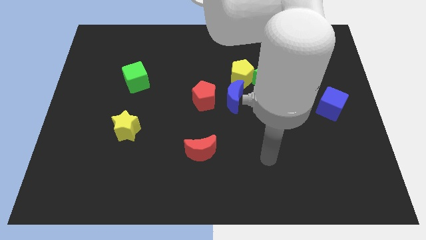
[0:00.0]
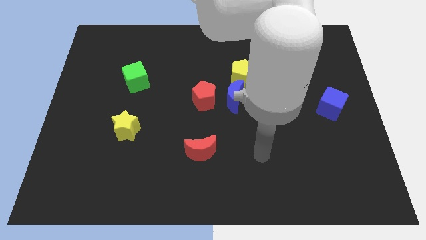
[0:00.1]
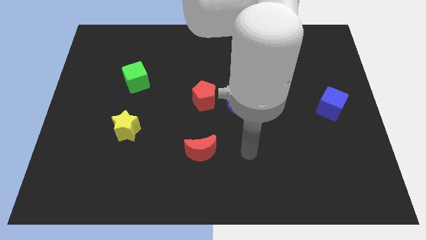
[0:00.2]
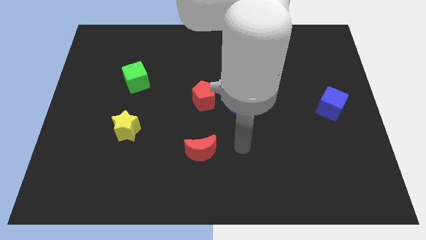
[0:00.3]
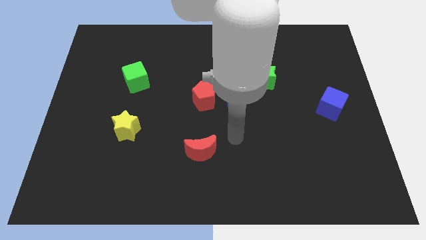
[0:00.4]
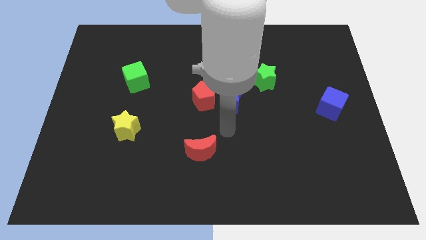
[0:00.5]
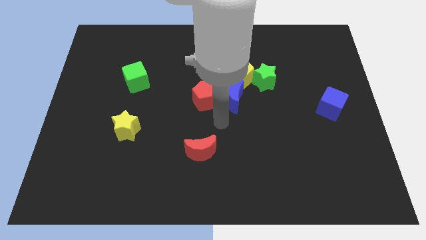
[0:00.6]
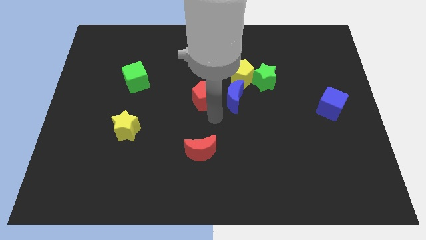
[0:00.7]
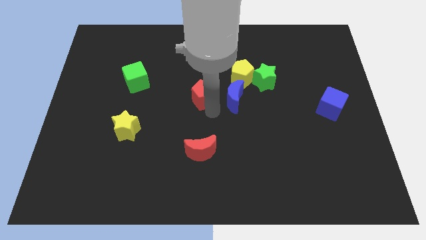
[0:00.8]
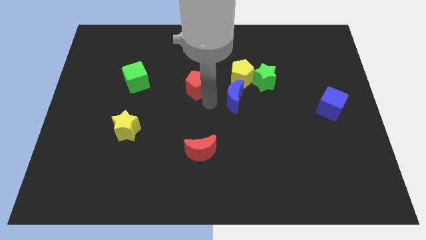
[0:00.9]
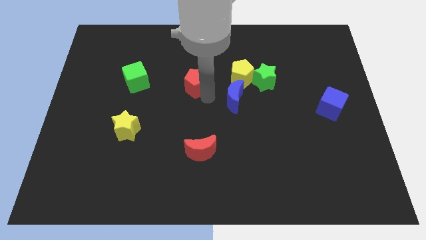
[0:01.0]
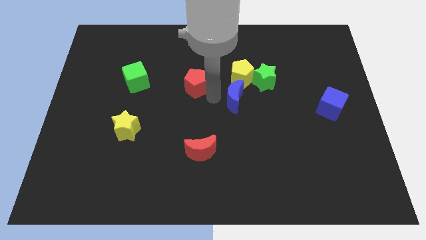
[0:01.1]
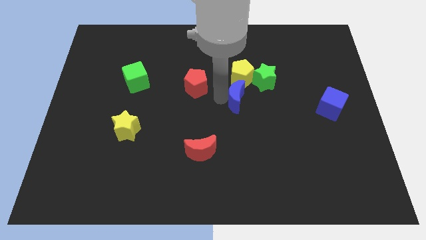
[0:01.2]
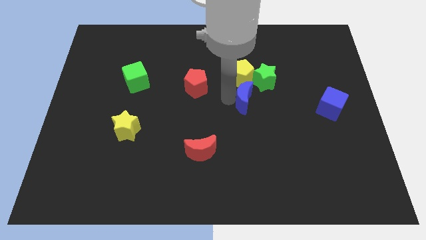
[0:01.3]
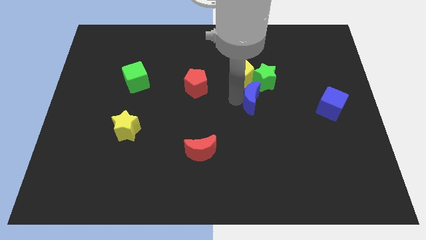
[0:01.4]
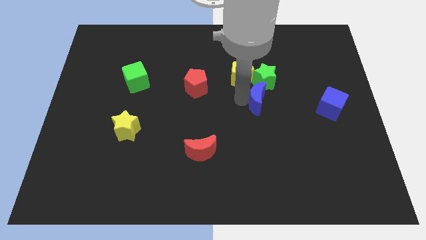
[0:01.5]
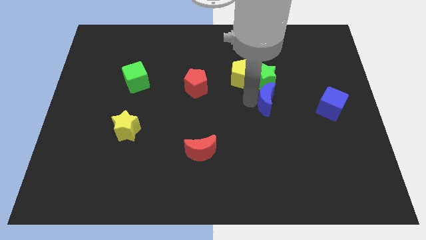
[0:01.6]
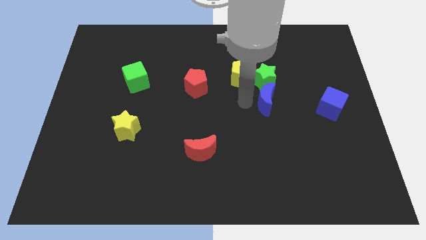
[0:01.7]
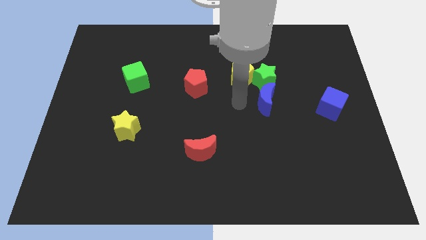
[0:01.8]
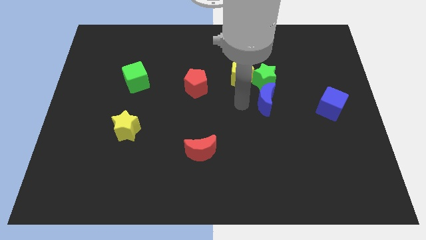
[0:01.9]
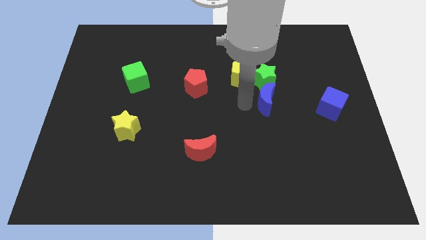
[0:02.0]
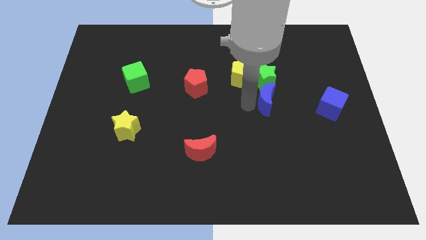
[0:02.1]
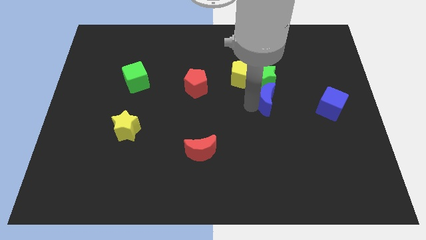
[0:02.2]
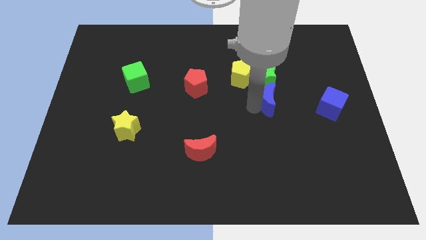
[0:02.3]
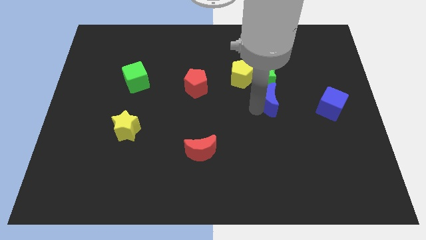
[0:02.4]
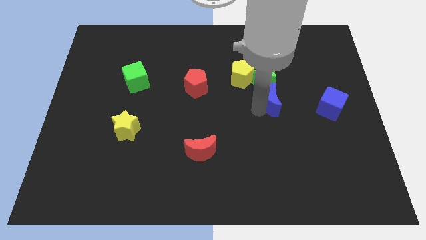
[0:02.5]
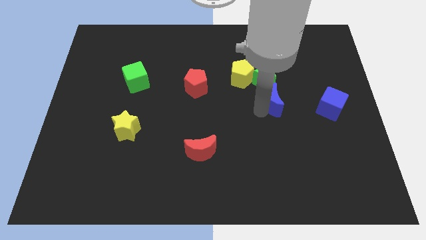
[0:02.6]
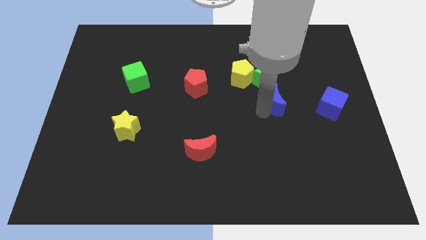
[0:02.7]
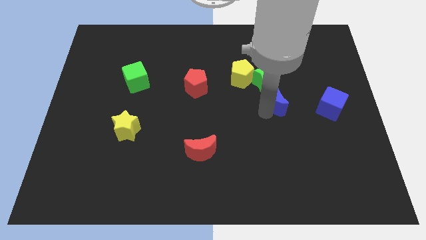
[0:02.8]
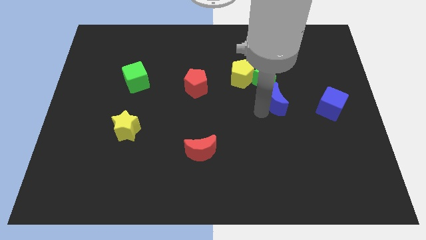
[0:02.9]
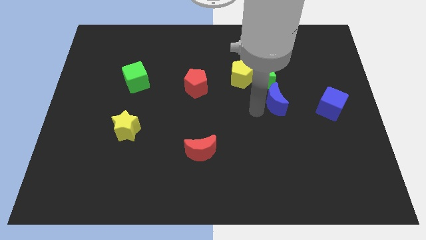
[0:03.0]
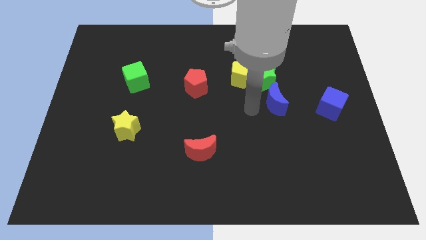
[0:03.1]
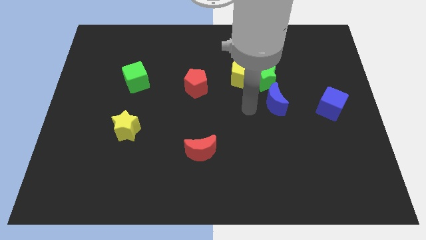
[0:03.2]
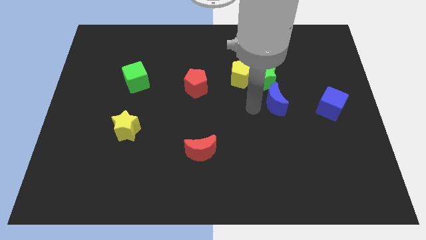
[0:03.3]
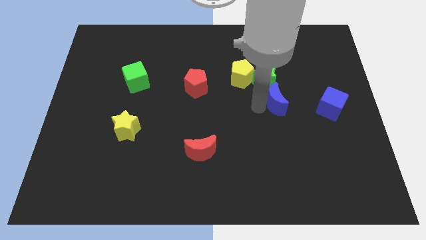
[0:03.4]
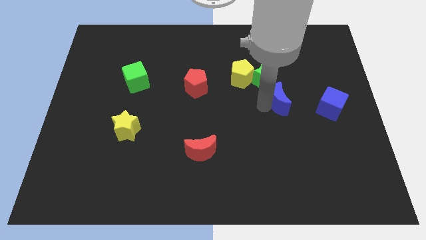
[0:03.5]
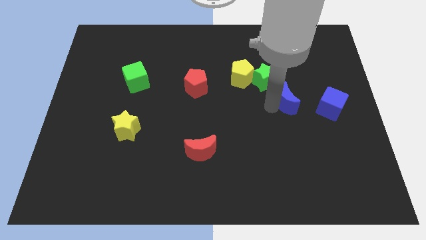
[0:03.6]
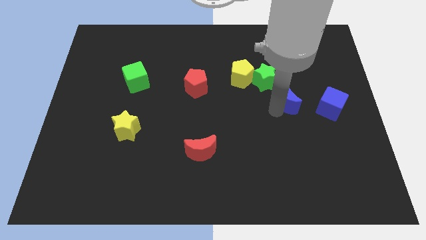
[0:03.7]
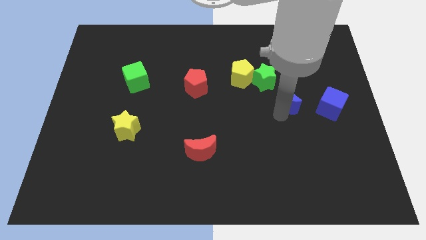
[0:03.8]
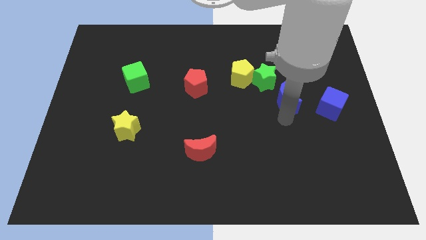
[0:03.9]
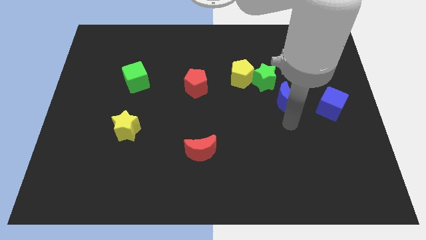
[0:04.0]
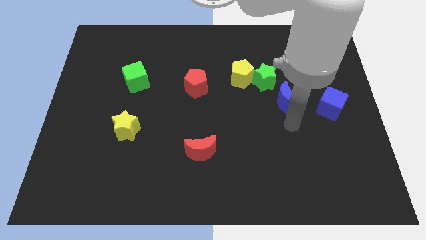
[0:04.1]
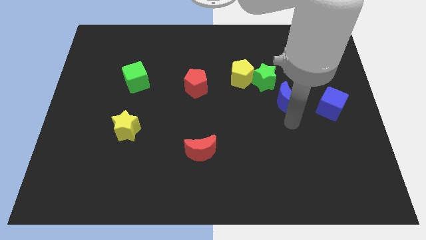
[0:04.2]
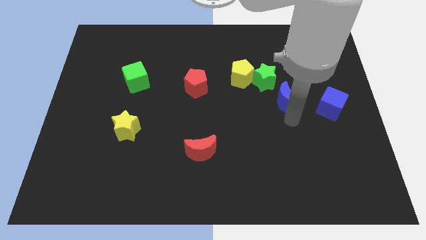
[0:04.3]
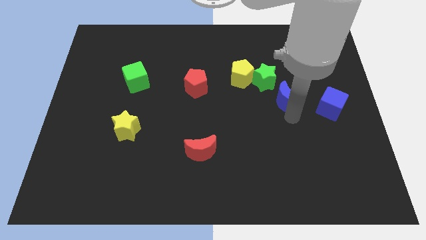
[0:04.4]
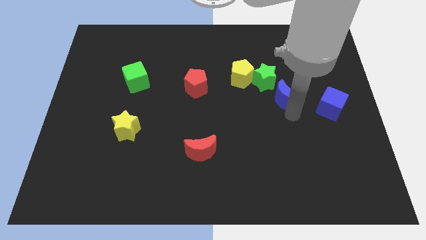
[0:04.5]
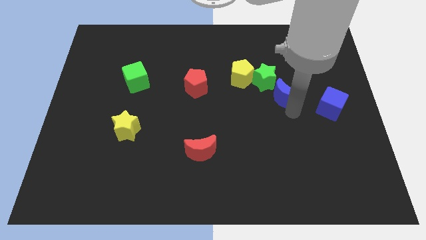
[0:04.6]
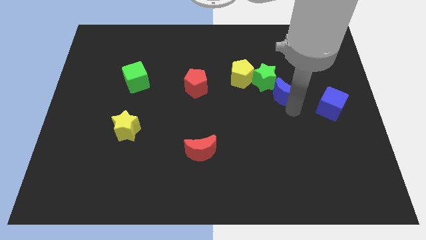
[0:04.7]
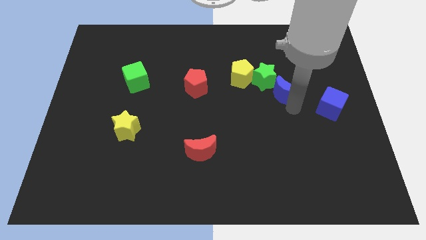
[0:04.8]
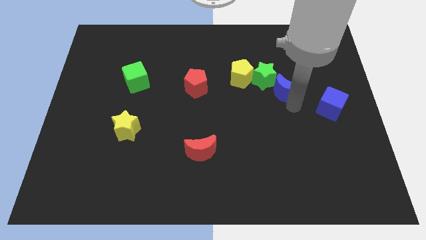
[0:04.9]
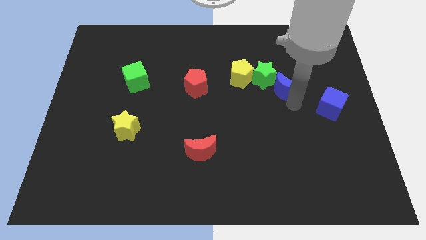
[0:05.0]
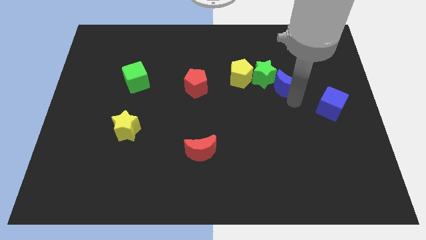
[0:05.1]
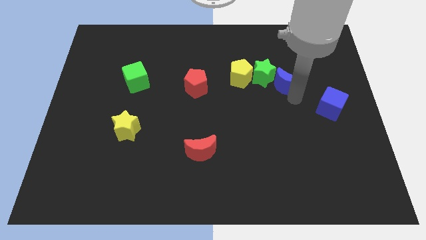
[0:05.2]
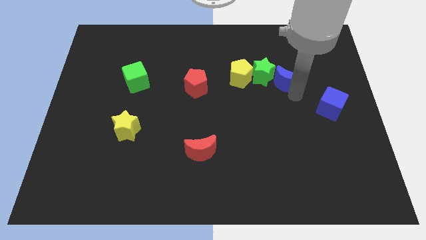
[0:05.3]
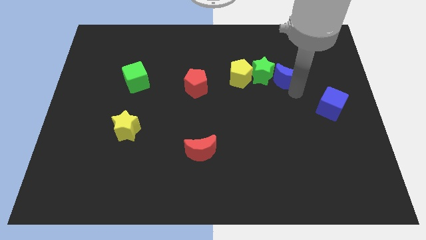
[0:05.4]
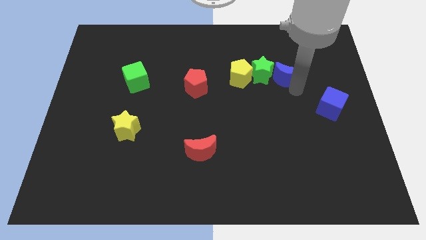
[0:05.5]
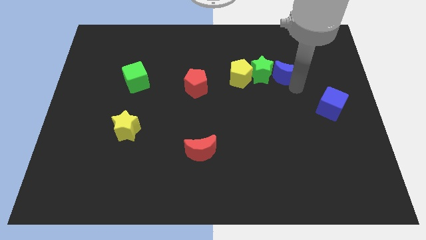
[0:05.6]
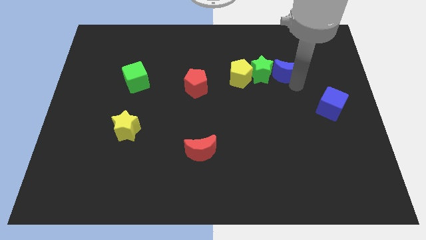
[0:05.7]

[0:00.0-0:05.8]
push the blue moon to the top right of the green star

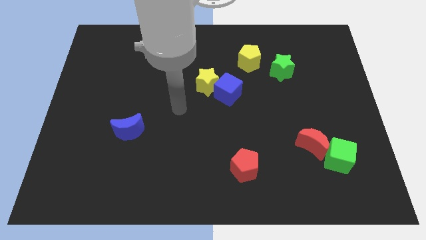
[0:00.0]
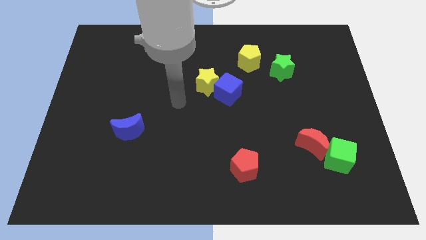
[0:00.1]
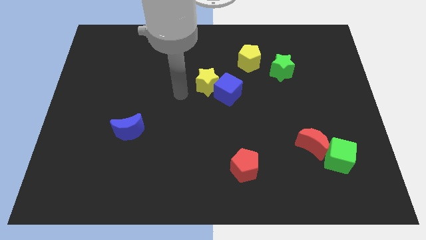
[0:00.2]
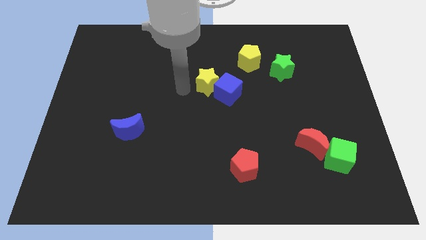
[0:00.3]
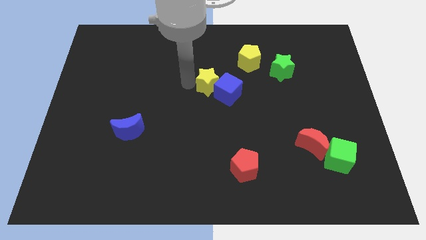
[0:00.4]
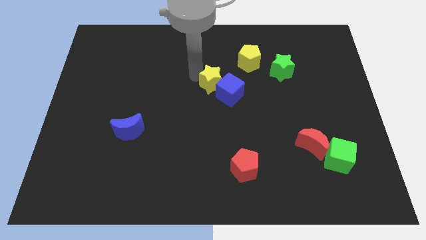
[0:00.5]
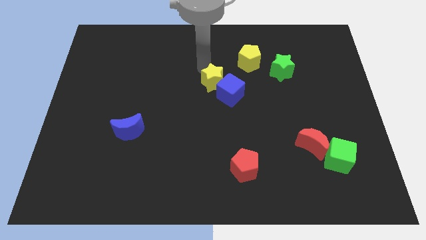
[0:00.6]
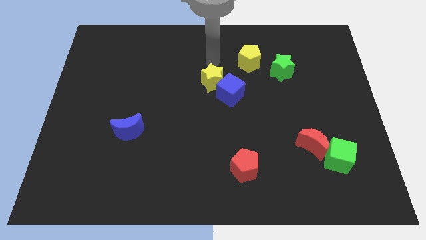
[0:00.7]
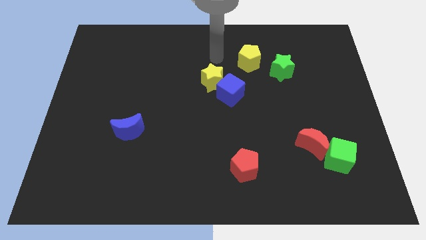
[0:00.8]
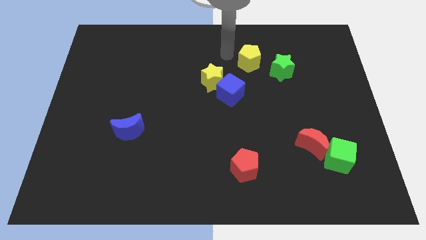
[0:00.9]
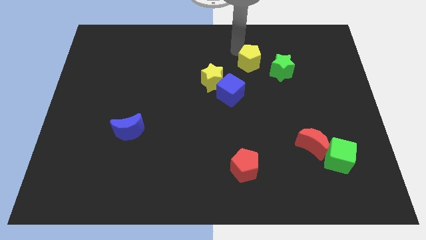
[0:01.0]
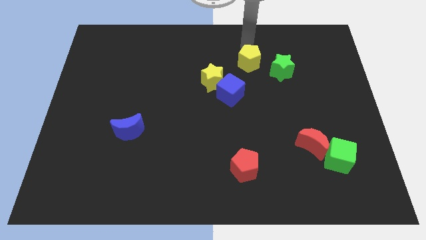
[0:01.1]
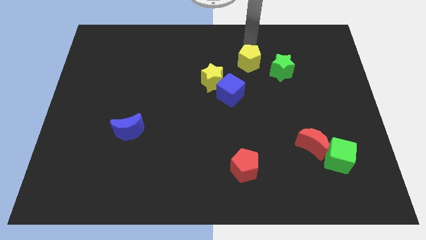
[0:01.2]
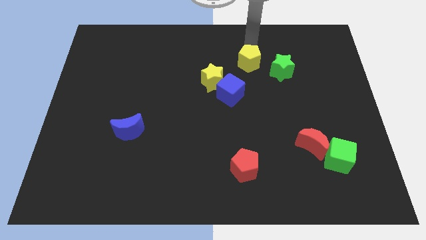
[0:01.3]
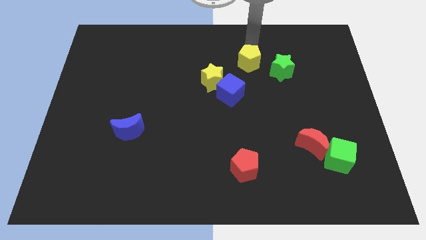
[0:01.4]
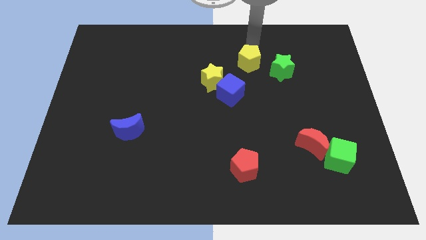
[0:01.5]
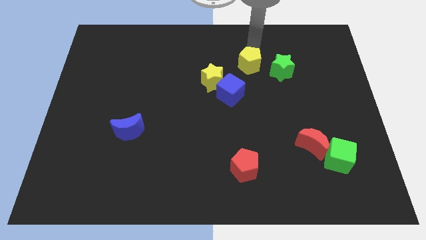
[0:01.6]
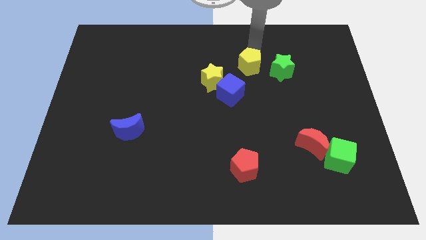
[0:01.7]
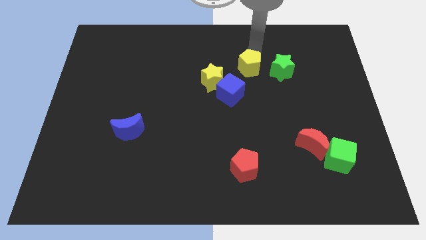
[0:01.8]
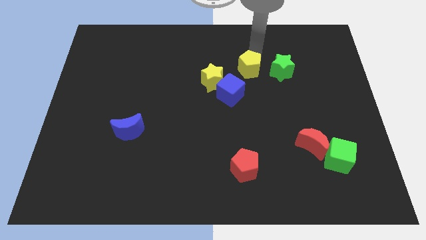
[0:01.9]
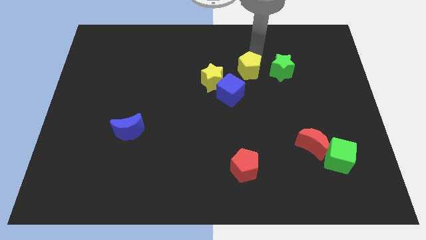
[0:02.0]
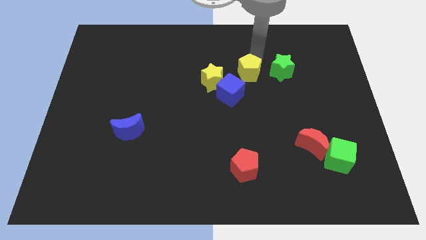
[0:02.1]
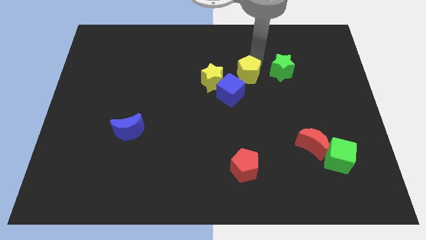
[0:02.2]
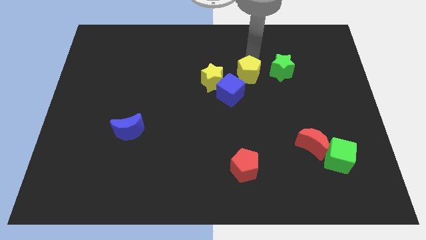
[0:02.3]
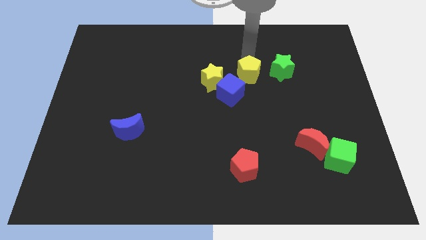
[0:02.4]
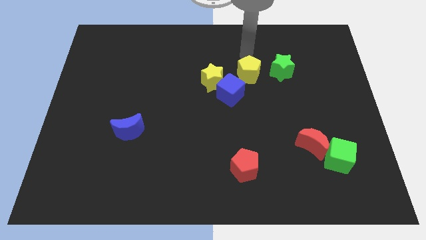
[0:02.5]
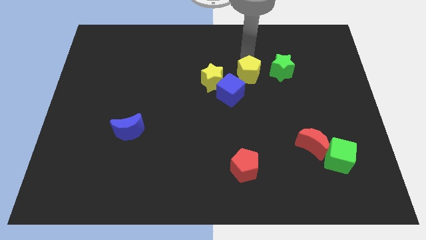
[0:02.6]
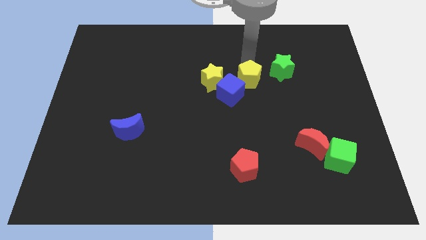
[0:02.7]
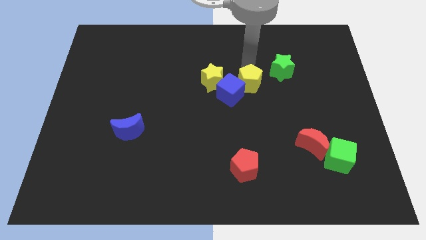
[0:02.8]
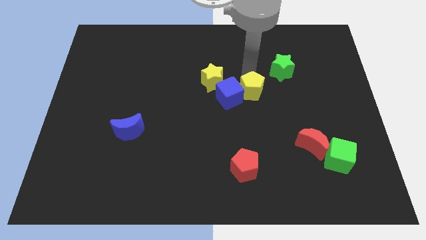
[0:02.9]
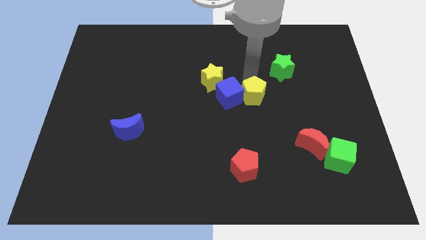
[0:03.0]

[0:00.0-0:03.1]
push the yellow pentagon to the bottom right of the blue cube
